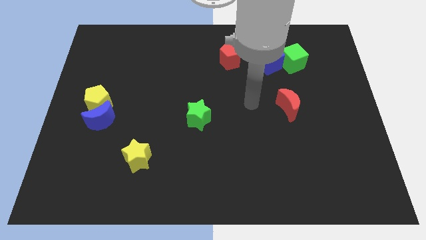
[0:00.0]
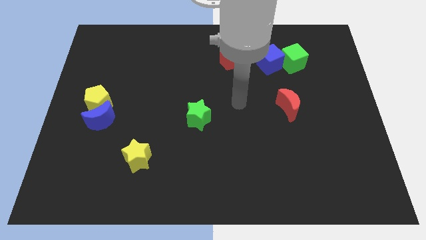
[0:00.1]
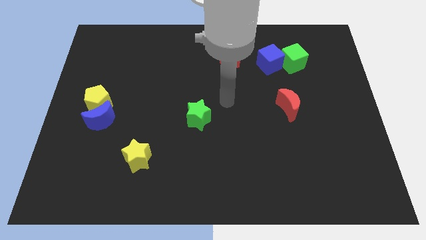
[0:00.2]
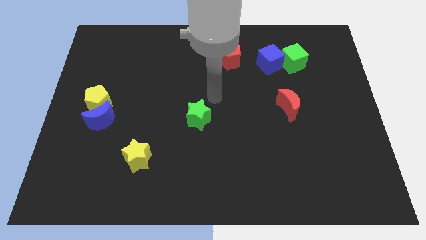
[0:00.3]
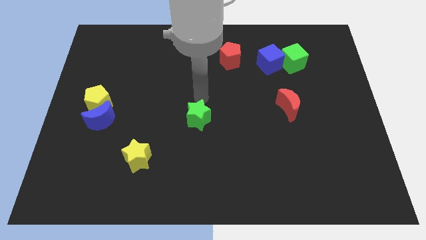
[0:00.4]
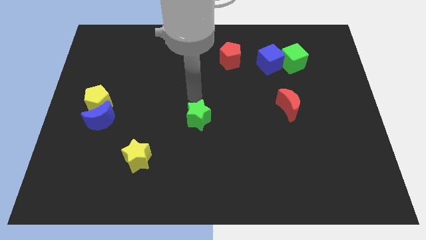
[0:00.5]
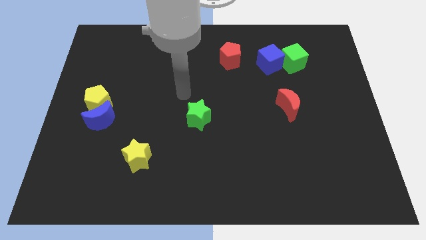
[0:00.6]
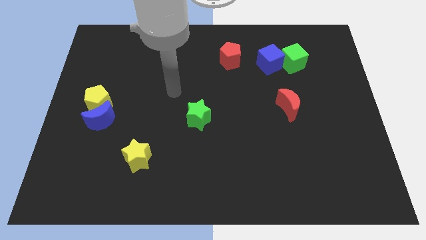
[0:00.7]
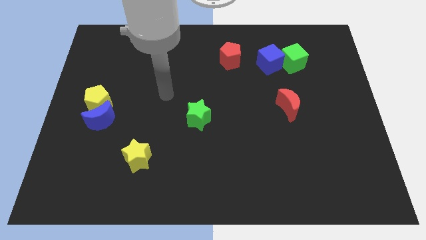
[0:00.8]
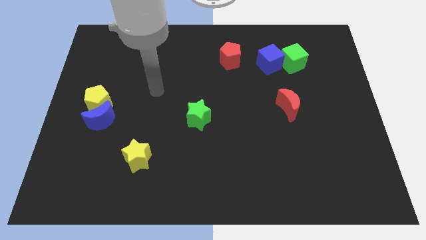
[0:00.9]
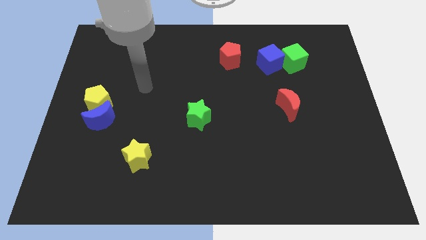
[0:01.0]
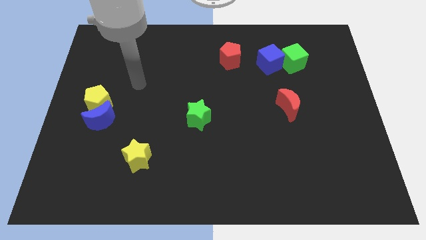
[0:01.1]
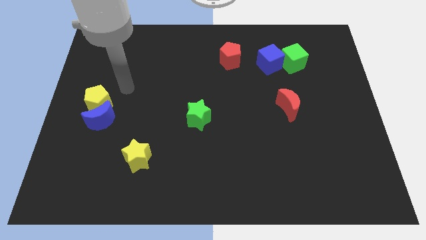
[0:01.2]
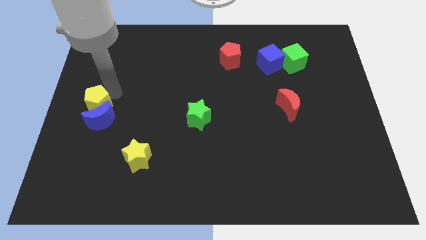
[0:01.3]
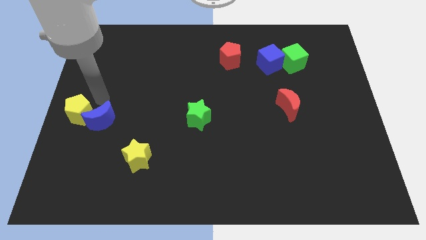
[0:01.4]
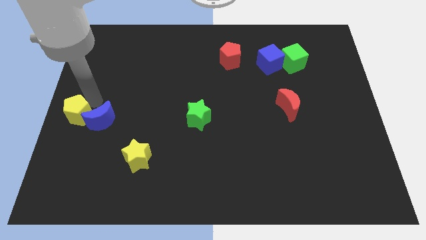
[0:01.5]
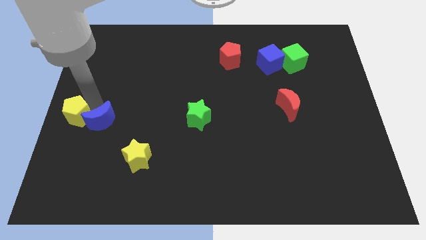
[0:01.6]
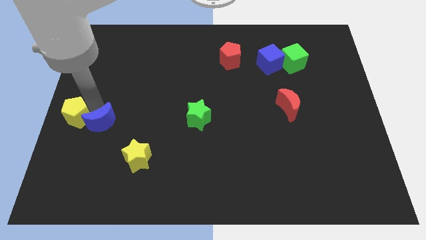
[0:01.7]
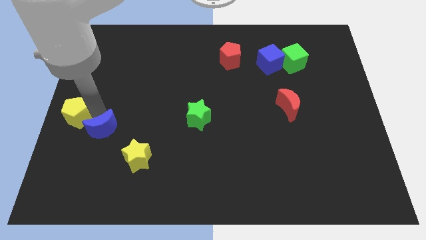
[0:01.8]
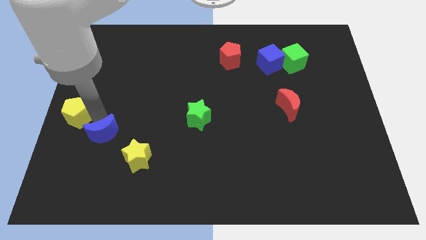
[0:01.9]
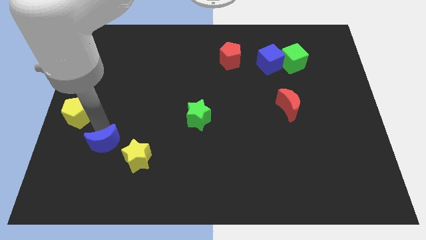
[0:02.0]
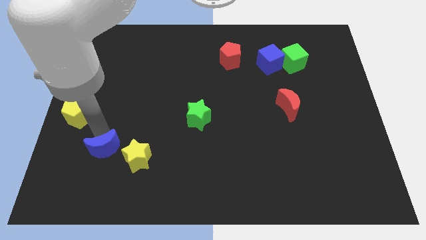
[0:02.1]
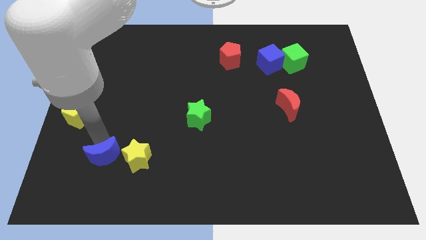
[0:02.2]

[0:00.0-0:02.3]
slightly slide the blue moon down and then right

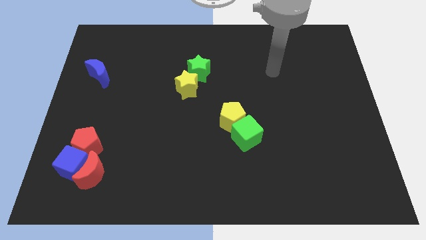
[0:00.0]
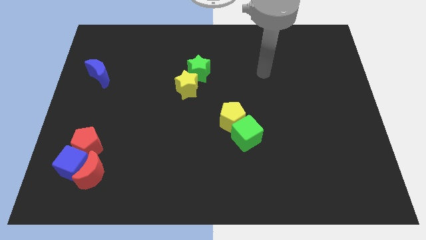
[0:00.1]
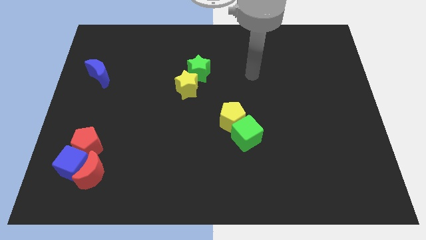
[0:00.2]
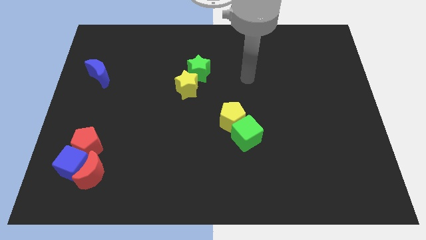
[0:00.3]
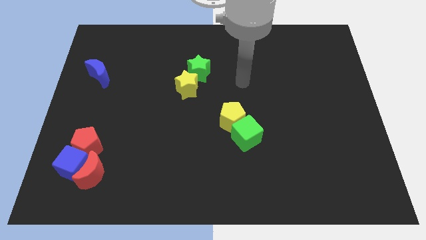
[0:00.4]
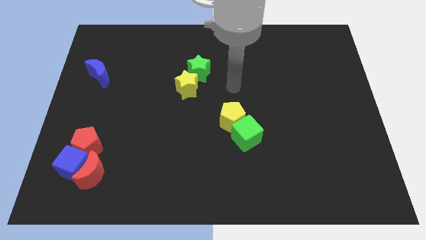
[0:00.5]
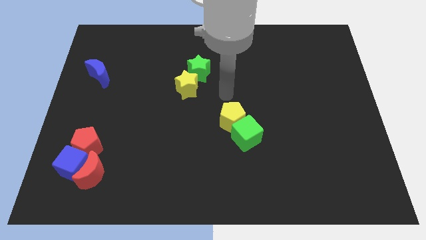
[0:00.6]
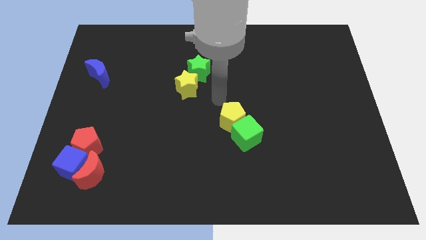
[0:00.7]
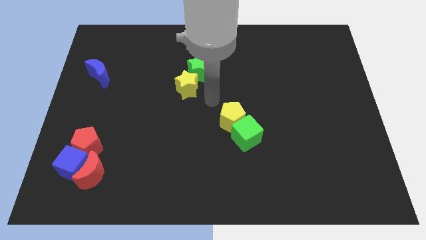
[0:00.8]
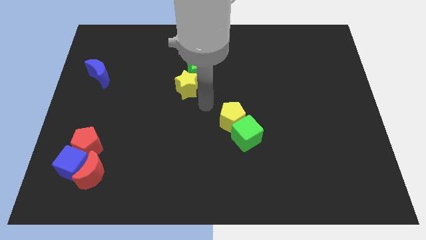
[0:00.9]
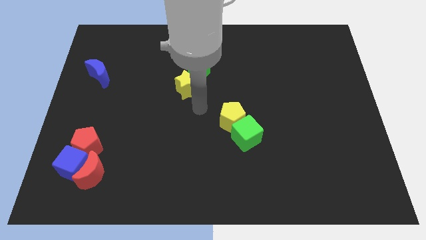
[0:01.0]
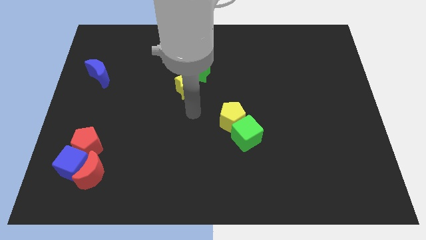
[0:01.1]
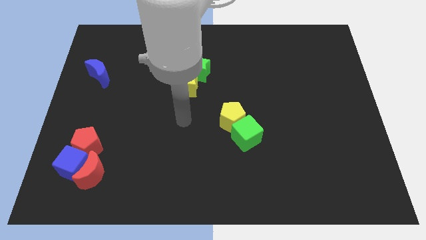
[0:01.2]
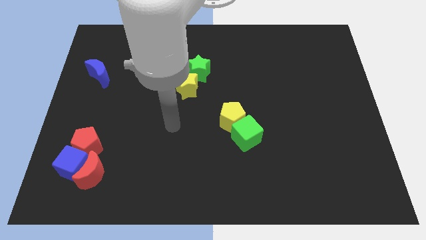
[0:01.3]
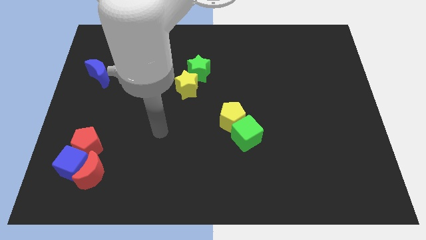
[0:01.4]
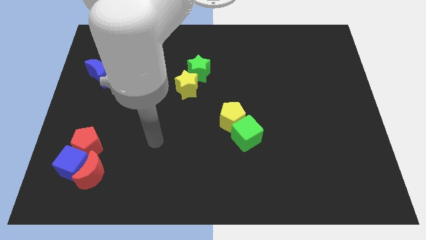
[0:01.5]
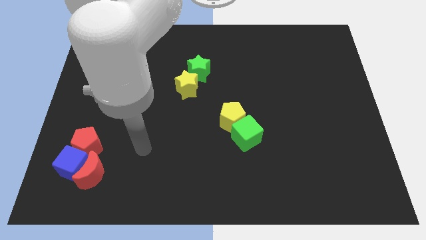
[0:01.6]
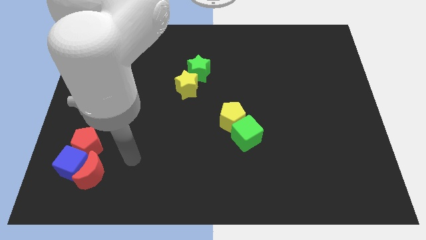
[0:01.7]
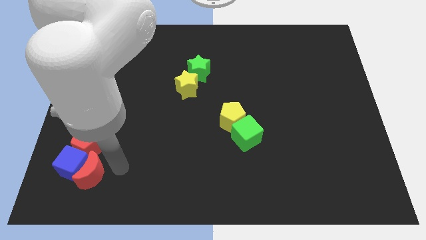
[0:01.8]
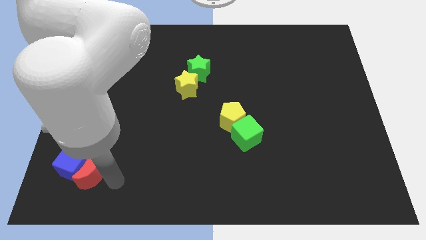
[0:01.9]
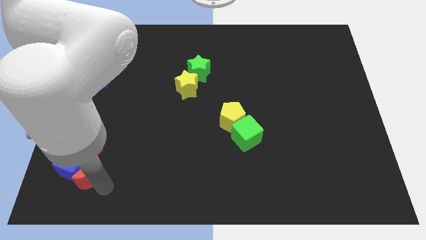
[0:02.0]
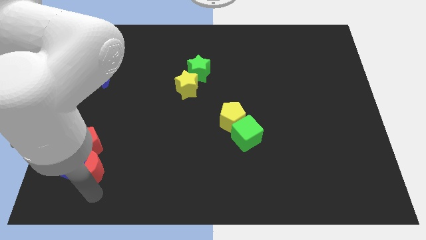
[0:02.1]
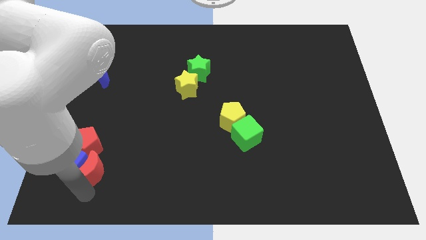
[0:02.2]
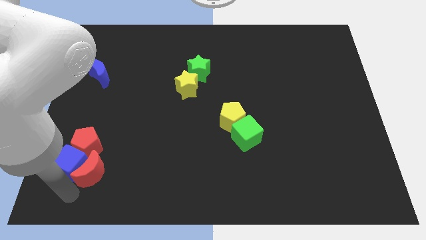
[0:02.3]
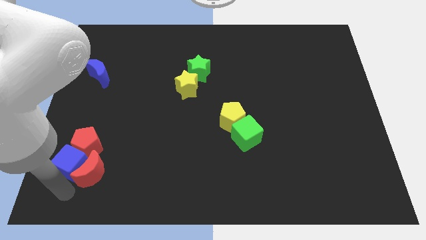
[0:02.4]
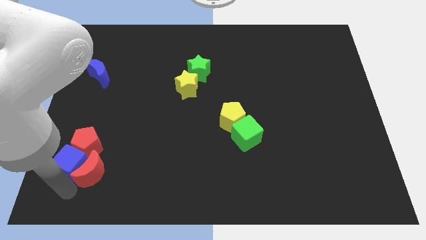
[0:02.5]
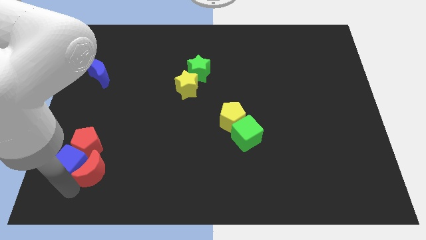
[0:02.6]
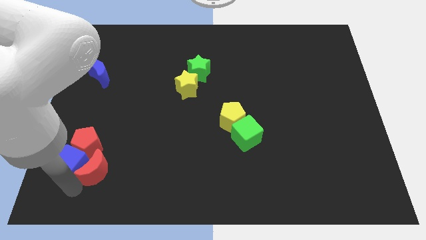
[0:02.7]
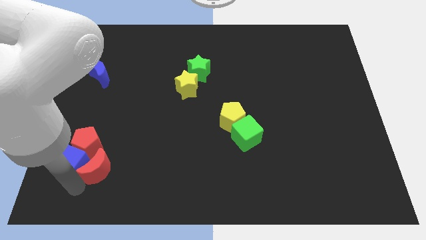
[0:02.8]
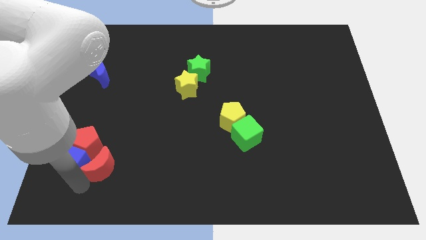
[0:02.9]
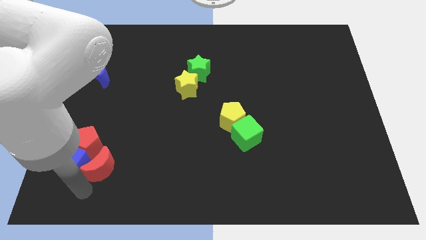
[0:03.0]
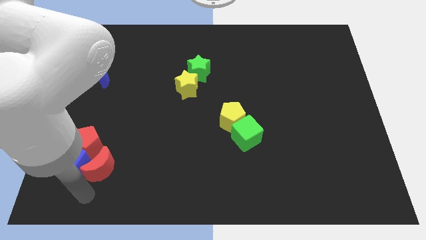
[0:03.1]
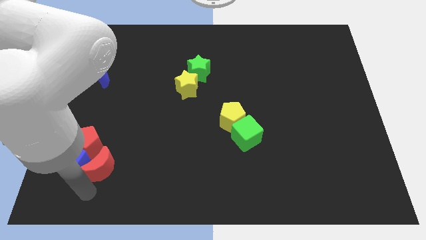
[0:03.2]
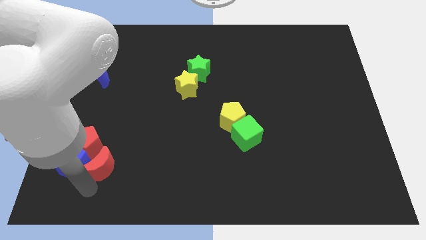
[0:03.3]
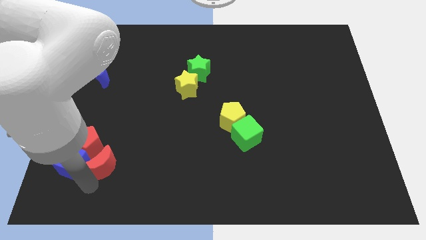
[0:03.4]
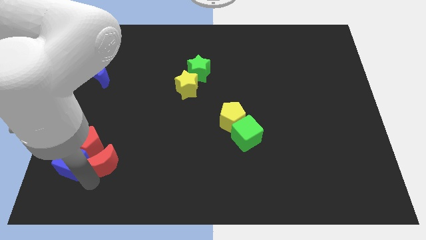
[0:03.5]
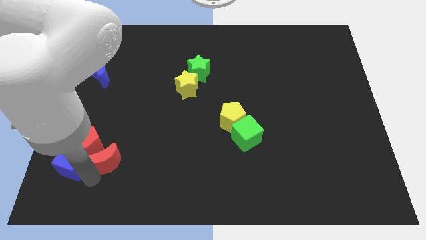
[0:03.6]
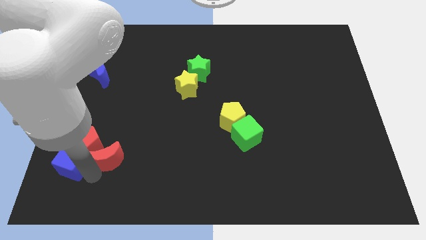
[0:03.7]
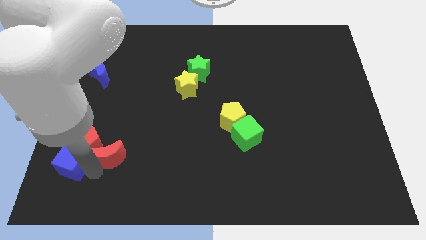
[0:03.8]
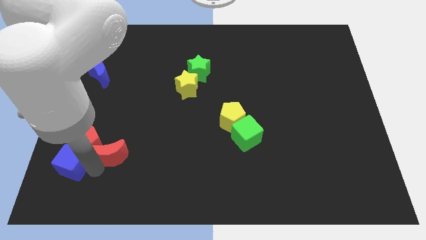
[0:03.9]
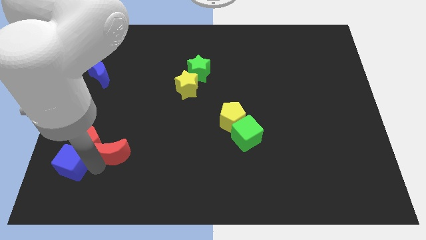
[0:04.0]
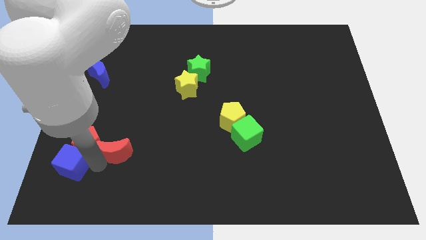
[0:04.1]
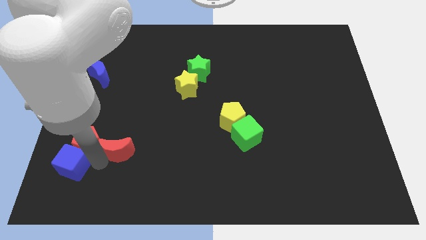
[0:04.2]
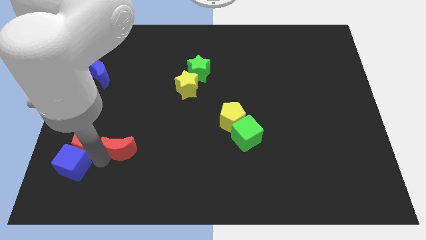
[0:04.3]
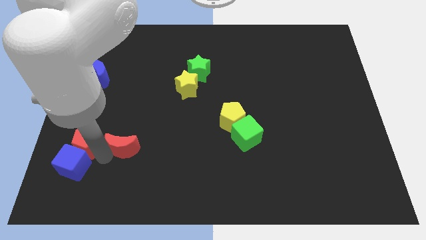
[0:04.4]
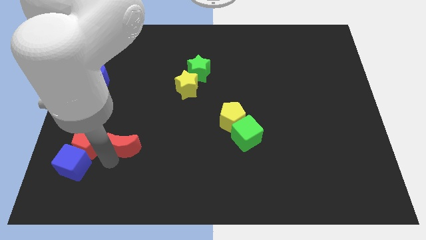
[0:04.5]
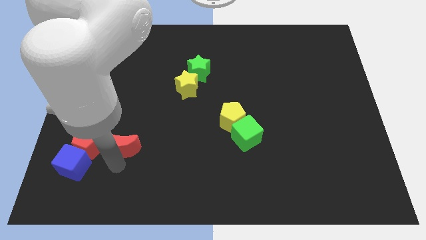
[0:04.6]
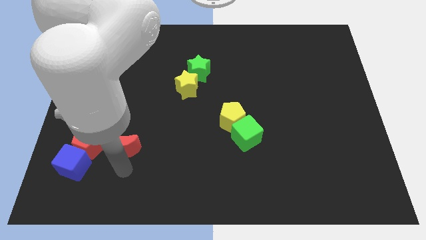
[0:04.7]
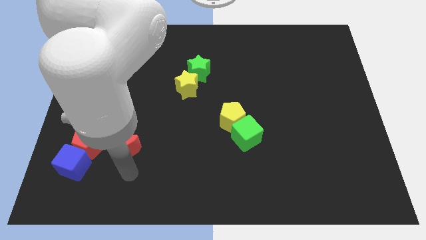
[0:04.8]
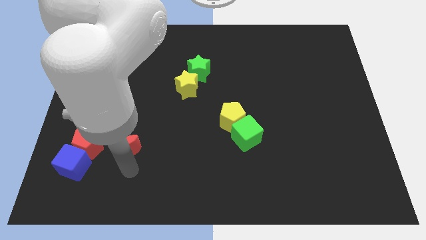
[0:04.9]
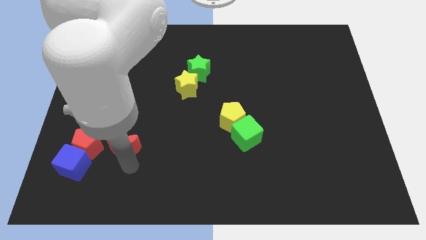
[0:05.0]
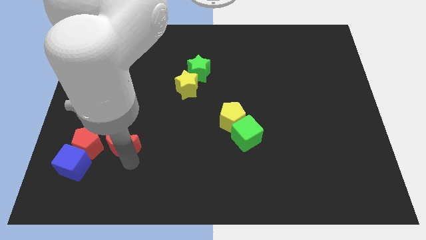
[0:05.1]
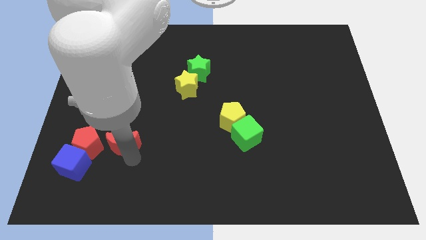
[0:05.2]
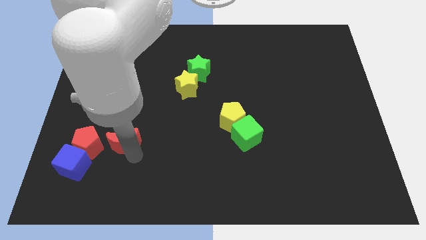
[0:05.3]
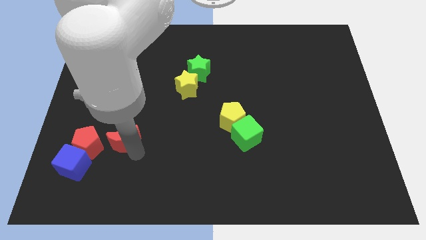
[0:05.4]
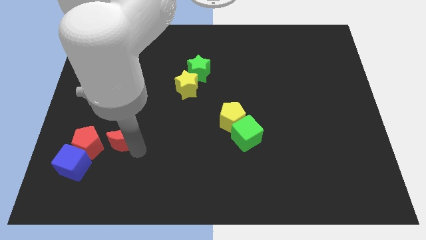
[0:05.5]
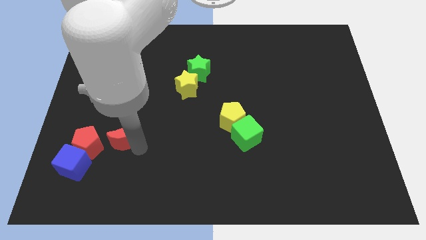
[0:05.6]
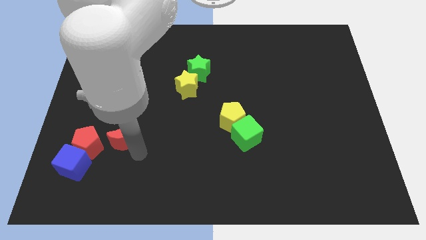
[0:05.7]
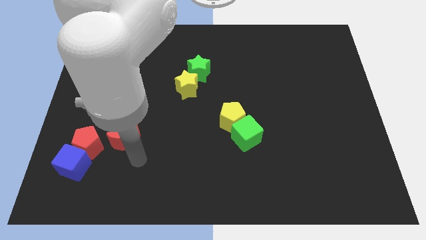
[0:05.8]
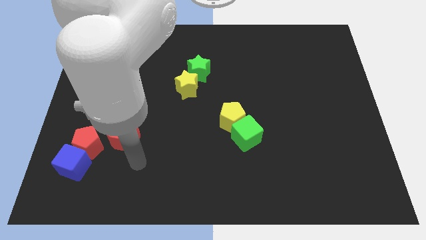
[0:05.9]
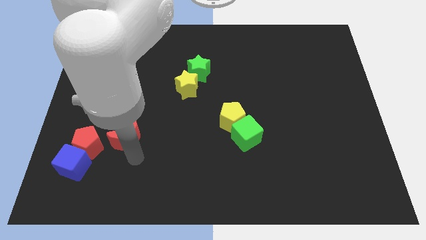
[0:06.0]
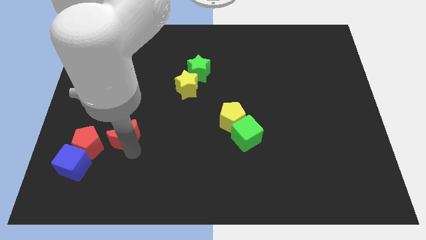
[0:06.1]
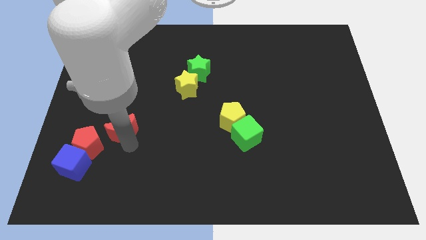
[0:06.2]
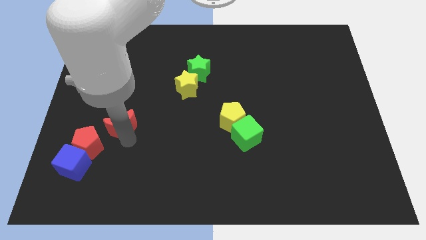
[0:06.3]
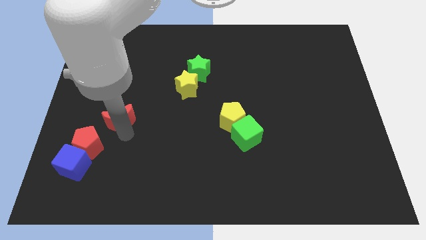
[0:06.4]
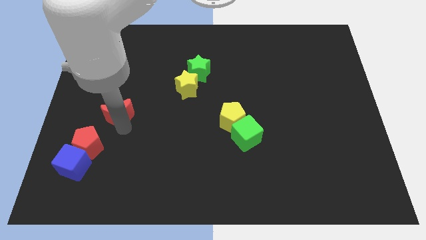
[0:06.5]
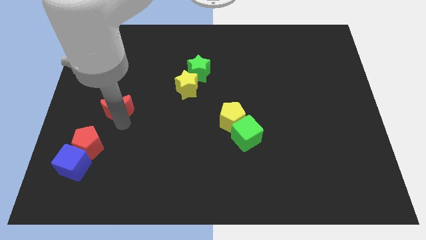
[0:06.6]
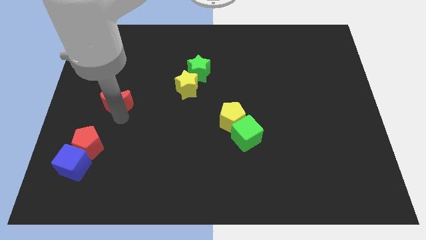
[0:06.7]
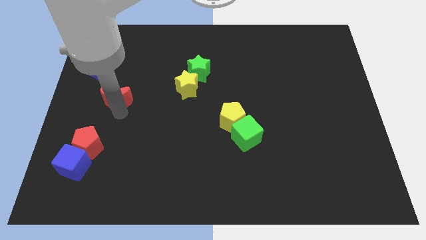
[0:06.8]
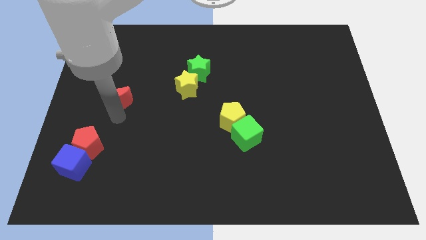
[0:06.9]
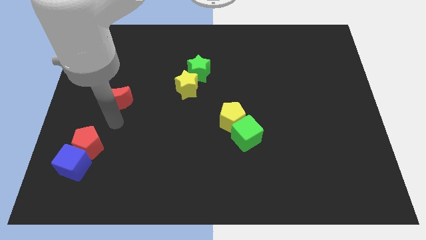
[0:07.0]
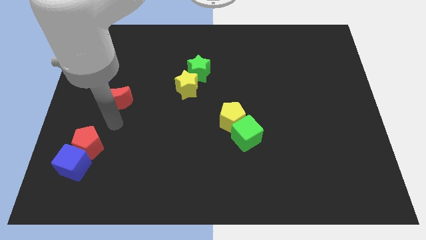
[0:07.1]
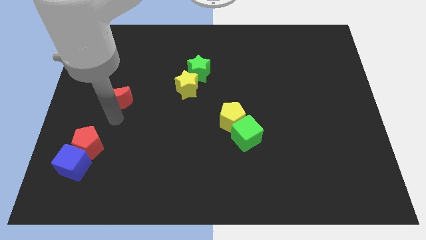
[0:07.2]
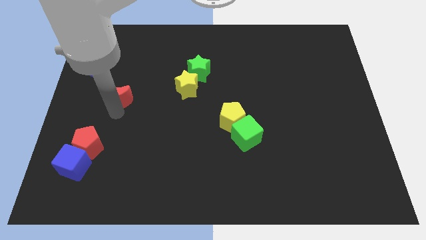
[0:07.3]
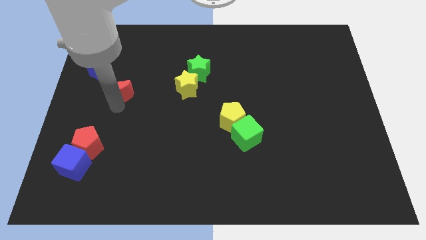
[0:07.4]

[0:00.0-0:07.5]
push the red moon up
